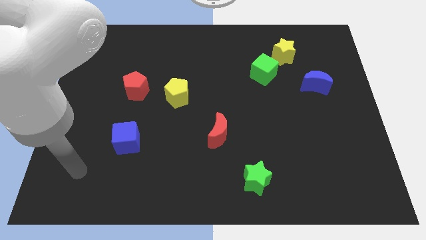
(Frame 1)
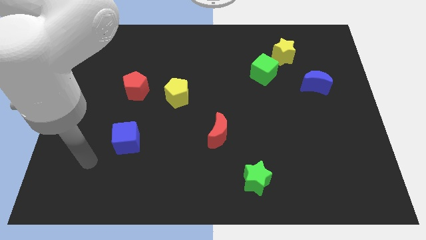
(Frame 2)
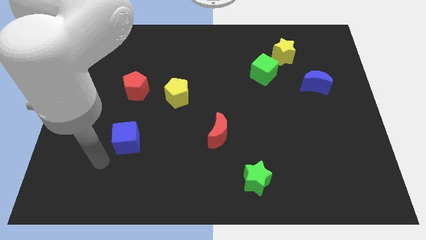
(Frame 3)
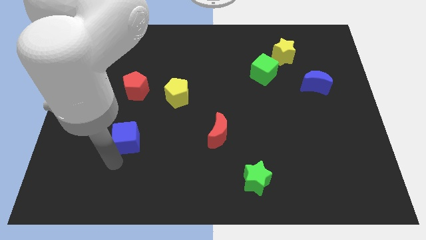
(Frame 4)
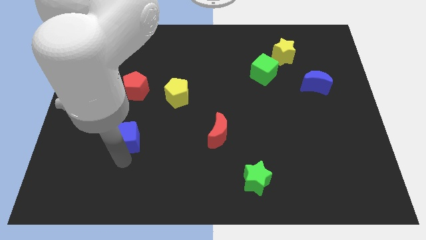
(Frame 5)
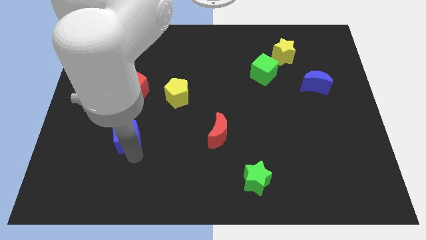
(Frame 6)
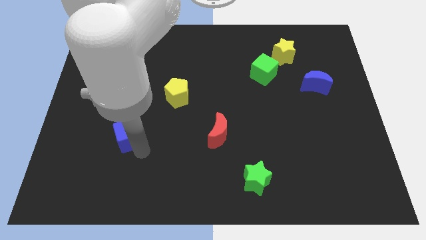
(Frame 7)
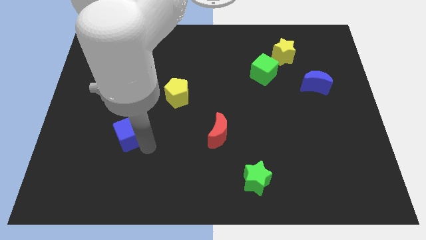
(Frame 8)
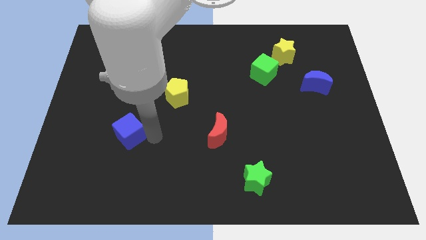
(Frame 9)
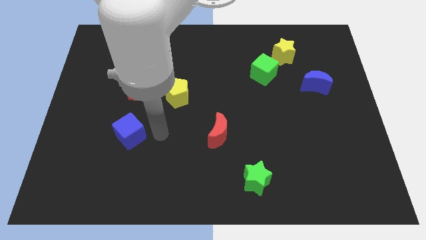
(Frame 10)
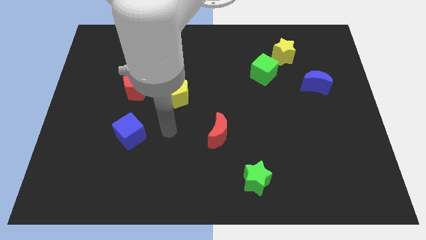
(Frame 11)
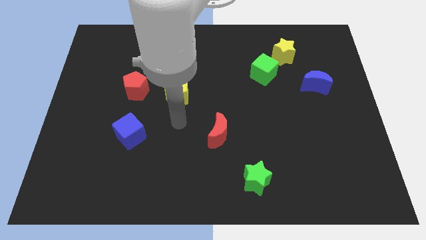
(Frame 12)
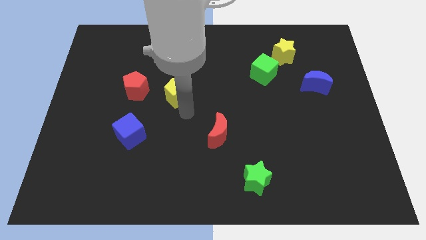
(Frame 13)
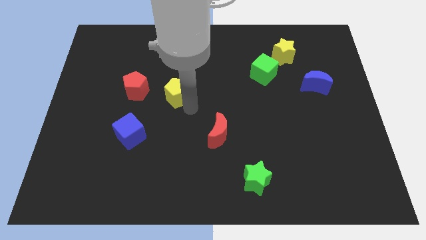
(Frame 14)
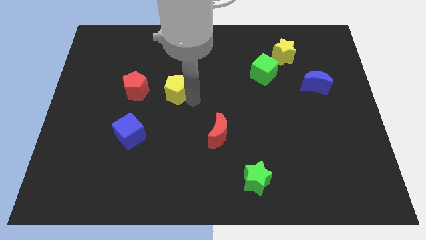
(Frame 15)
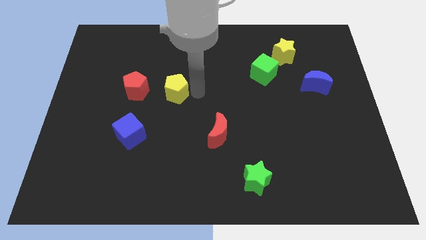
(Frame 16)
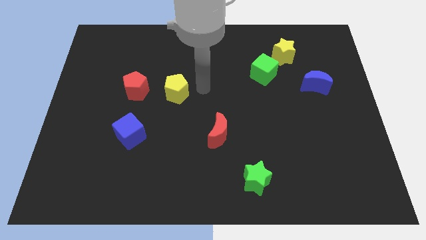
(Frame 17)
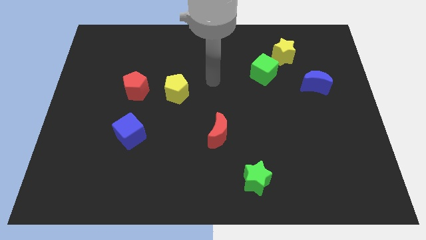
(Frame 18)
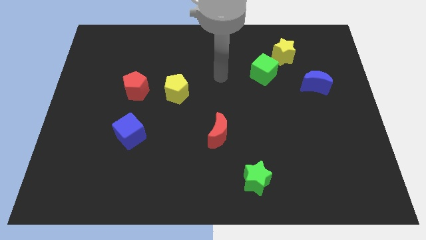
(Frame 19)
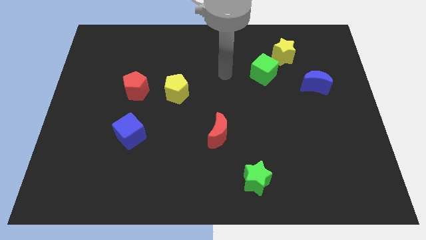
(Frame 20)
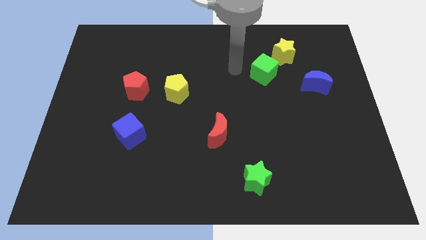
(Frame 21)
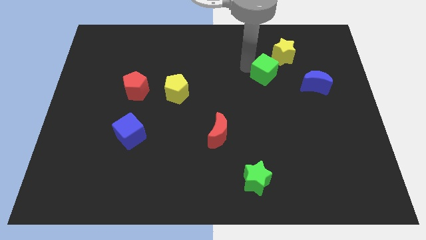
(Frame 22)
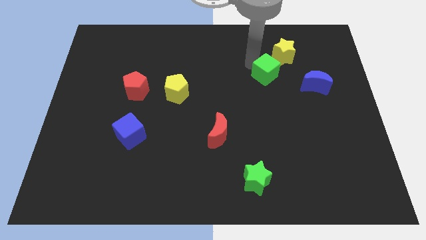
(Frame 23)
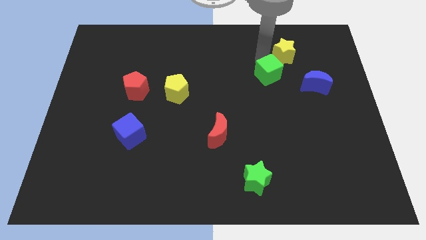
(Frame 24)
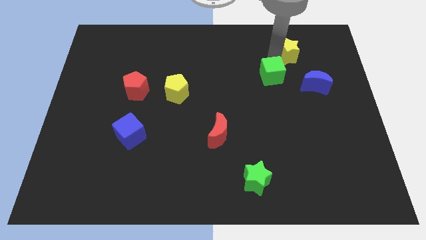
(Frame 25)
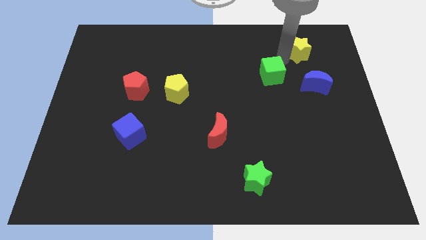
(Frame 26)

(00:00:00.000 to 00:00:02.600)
separate the green cube from the yellow star

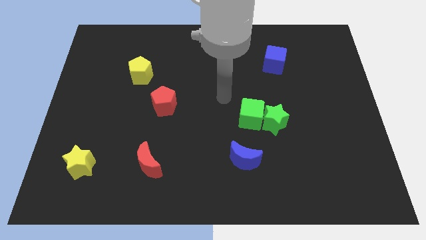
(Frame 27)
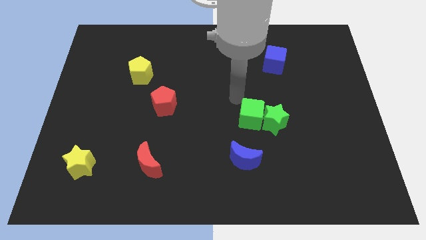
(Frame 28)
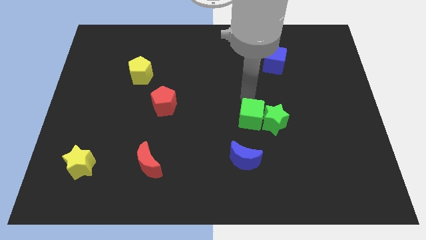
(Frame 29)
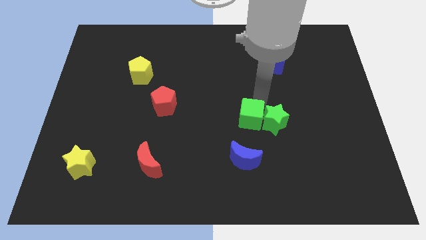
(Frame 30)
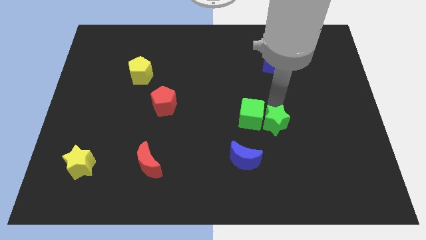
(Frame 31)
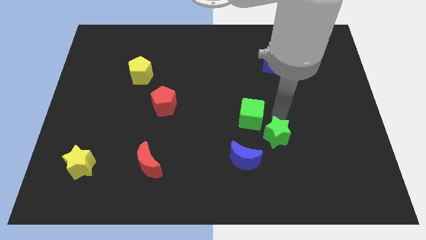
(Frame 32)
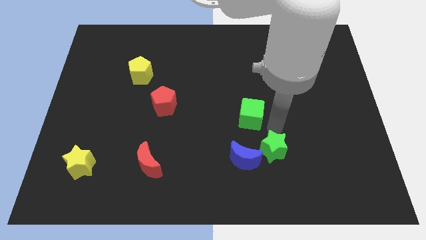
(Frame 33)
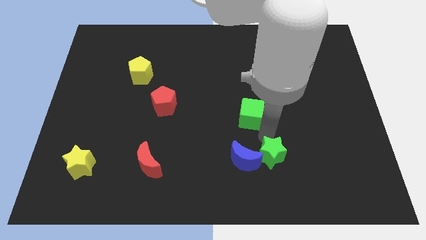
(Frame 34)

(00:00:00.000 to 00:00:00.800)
pull the green cube apart from the green star

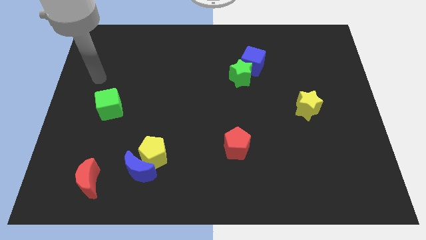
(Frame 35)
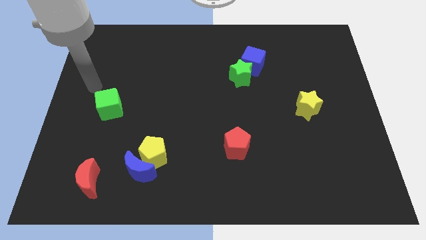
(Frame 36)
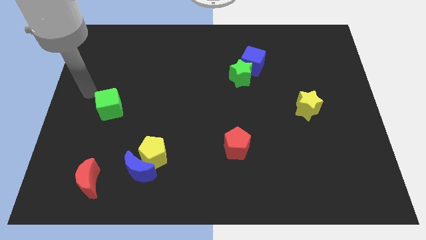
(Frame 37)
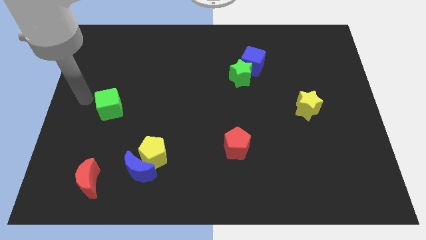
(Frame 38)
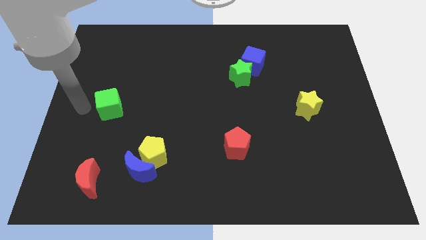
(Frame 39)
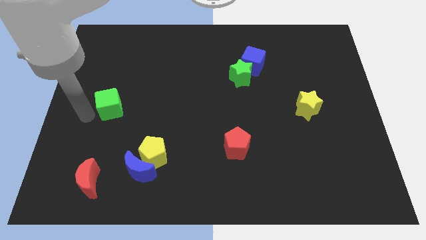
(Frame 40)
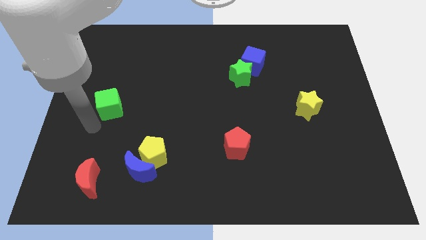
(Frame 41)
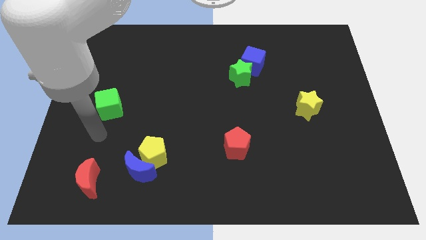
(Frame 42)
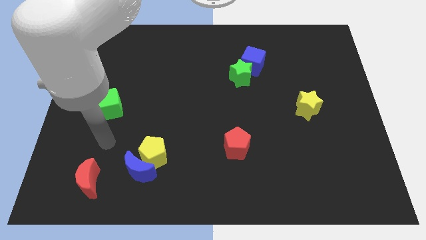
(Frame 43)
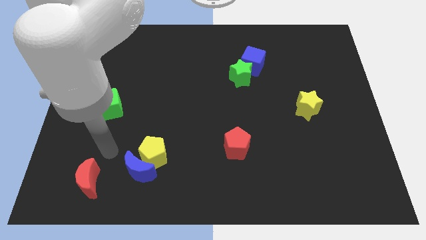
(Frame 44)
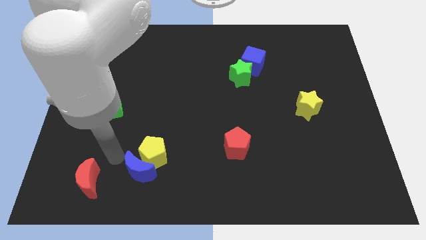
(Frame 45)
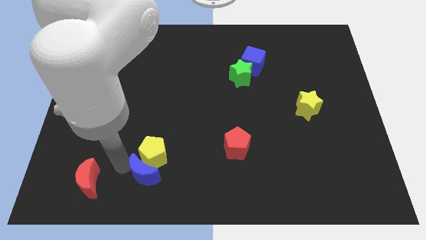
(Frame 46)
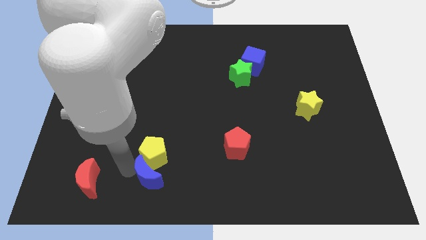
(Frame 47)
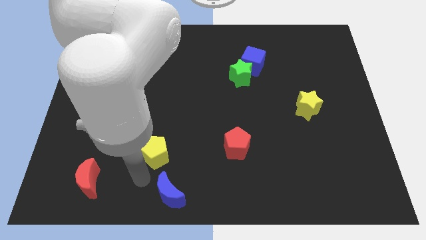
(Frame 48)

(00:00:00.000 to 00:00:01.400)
move the yellow pentagon away from the blue moon

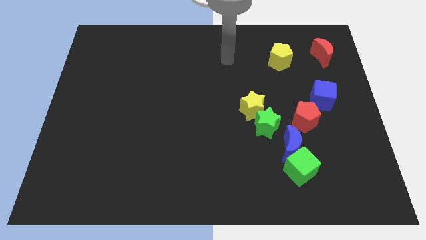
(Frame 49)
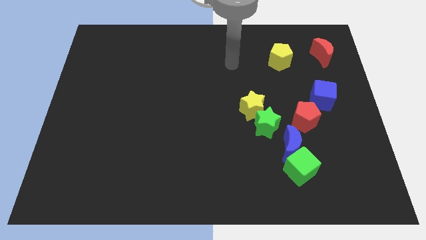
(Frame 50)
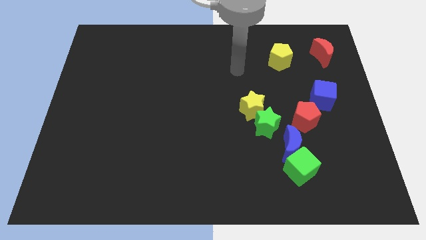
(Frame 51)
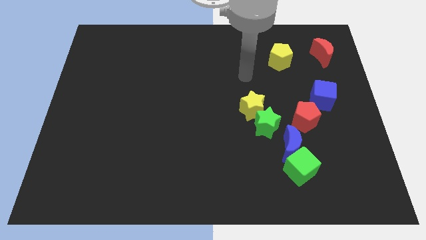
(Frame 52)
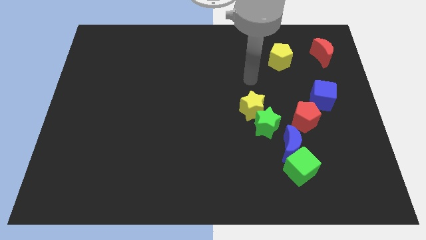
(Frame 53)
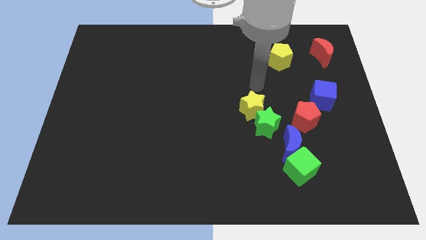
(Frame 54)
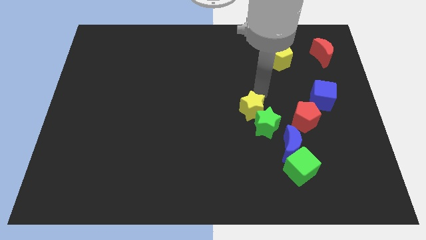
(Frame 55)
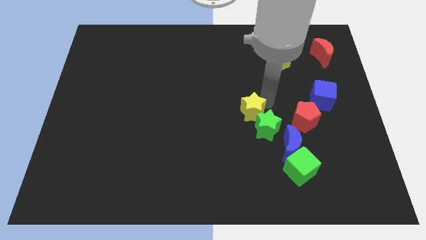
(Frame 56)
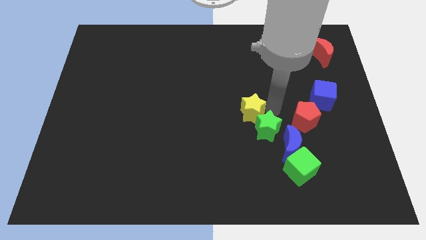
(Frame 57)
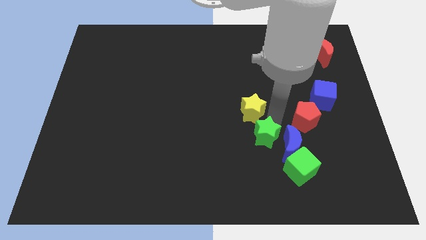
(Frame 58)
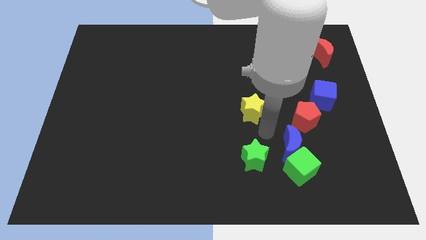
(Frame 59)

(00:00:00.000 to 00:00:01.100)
separate the yellow star from the green star

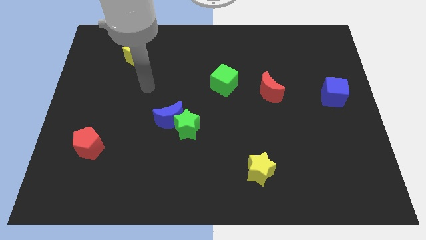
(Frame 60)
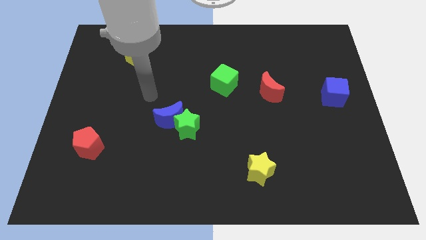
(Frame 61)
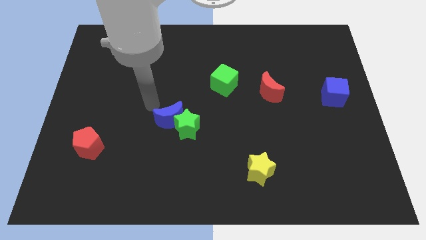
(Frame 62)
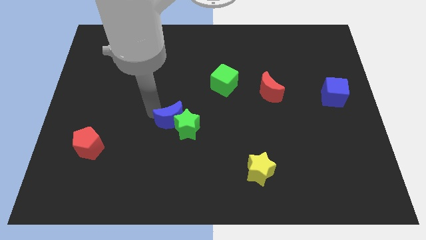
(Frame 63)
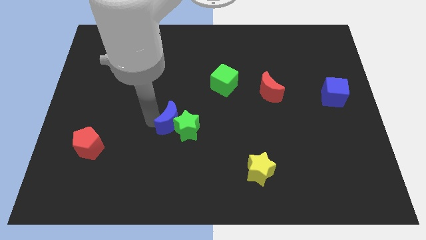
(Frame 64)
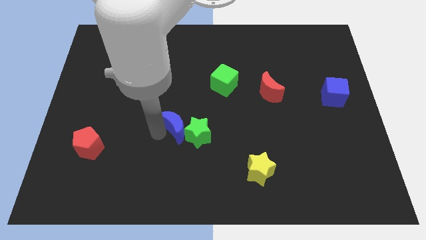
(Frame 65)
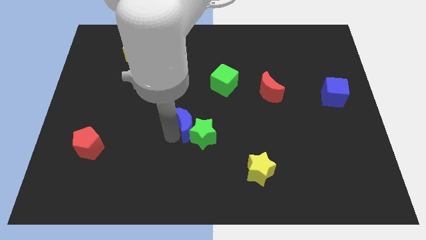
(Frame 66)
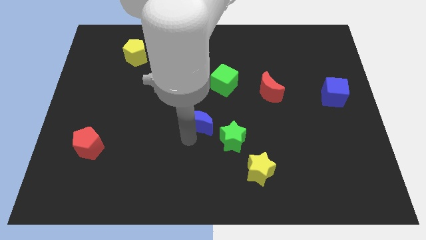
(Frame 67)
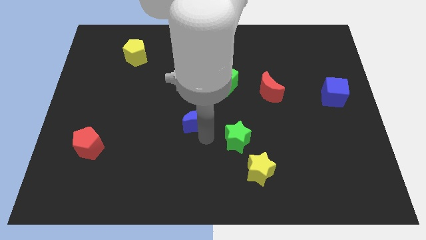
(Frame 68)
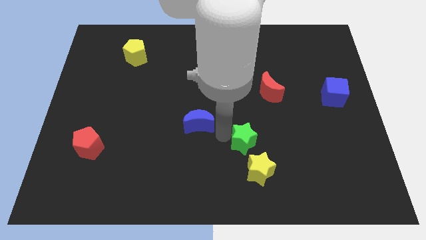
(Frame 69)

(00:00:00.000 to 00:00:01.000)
move the blue moon away from the green star

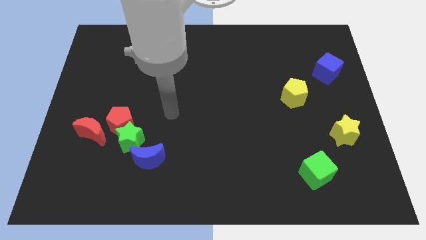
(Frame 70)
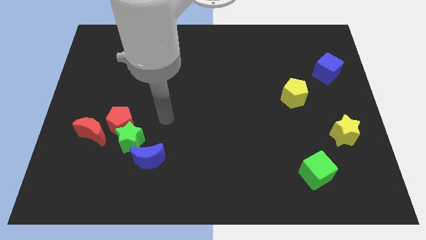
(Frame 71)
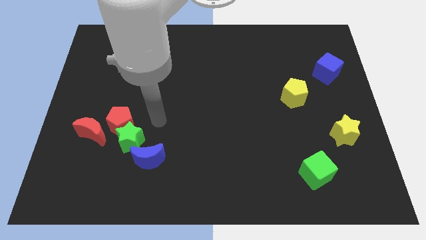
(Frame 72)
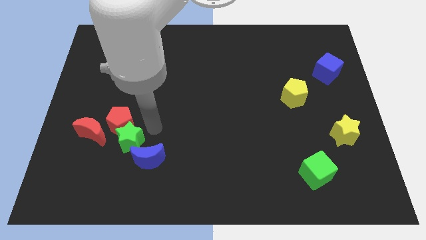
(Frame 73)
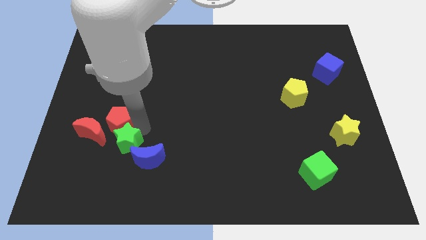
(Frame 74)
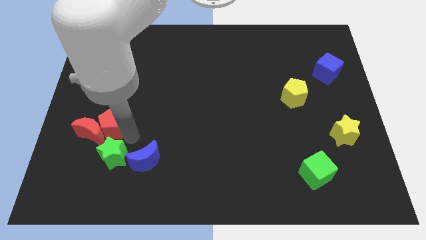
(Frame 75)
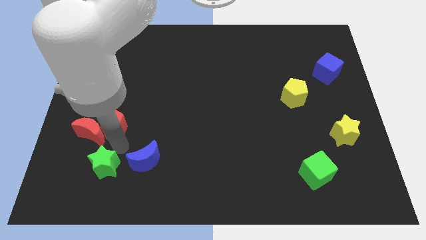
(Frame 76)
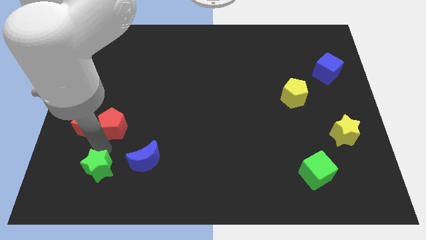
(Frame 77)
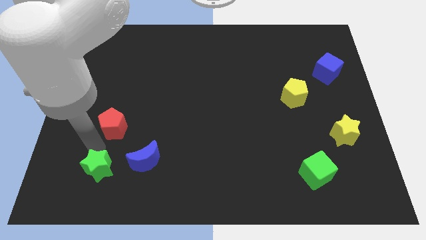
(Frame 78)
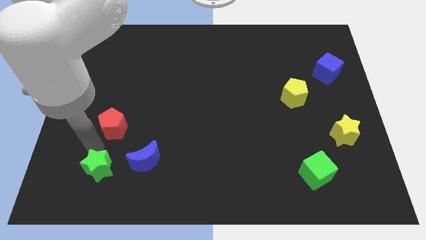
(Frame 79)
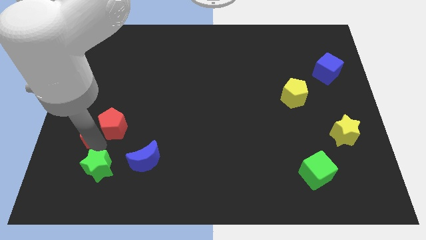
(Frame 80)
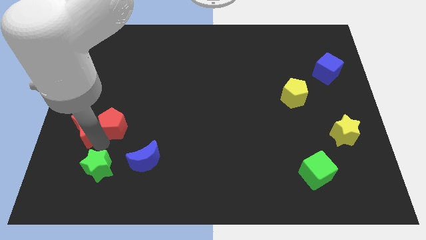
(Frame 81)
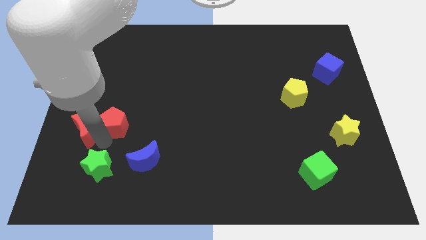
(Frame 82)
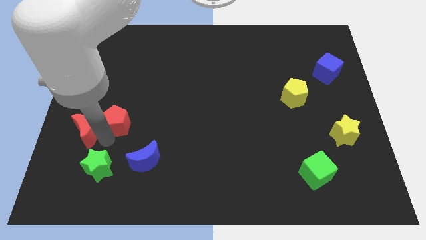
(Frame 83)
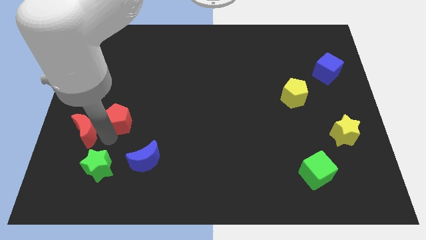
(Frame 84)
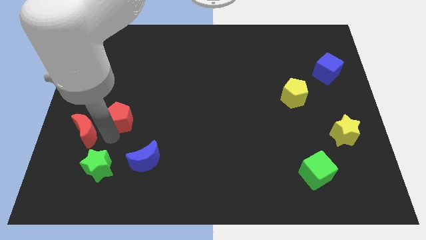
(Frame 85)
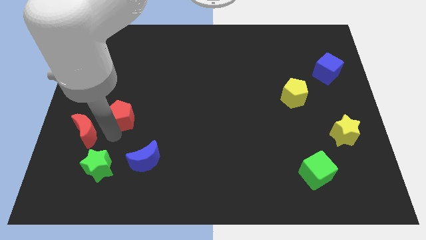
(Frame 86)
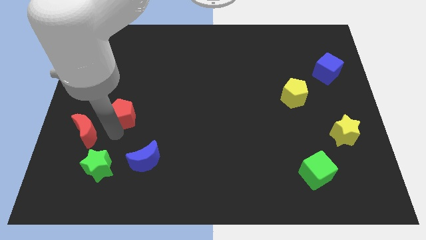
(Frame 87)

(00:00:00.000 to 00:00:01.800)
move the red pentagon away from the green star and red moon

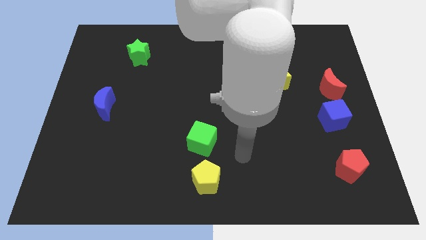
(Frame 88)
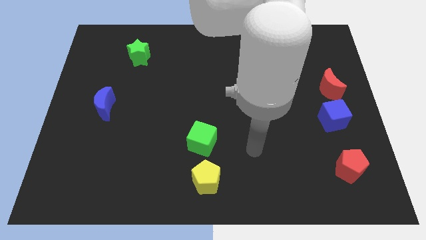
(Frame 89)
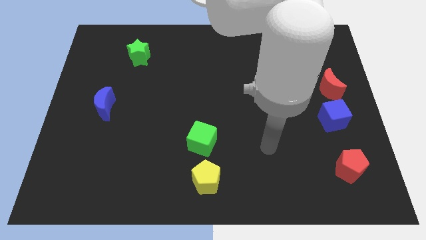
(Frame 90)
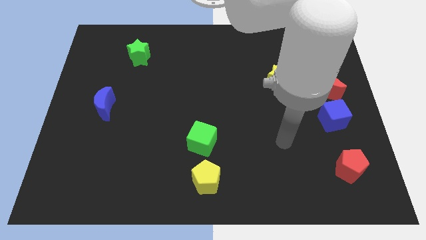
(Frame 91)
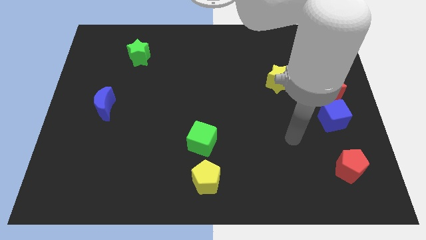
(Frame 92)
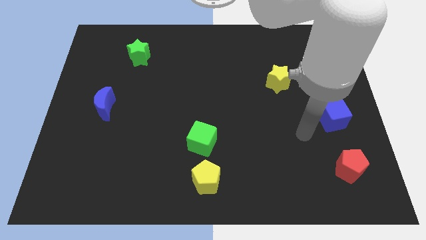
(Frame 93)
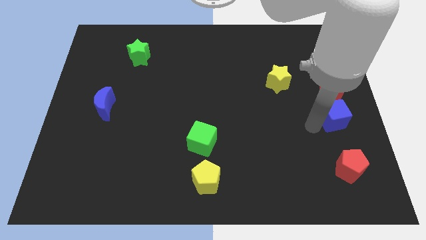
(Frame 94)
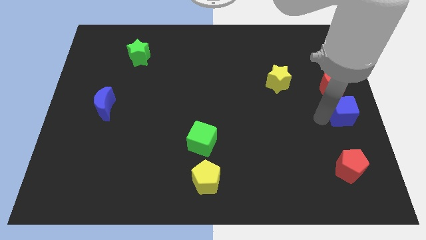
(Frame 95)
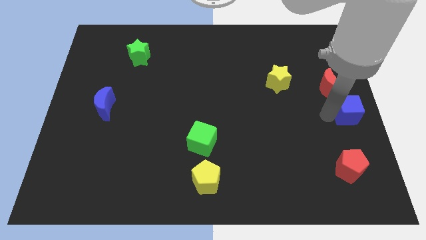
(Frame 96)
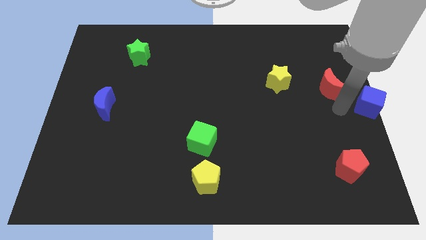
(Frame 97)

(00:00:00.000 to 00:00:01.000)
pull the red moon apart from the blue cube
